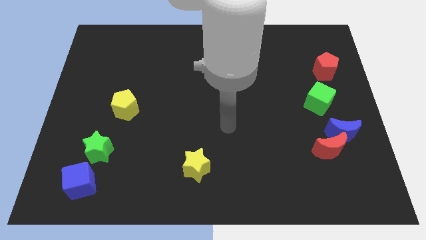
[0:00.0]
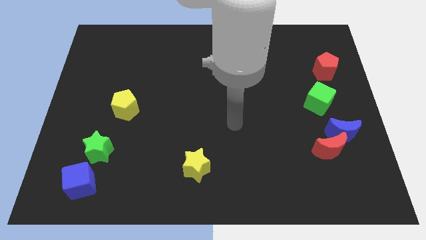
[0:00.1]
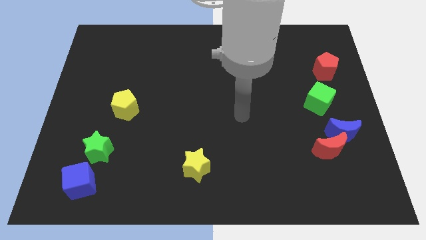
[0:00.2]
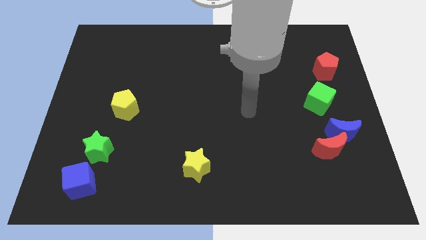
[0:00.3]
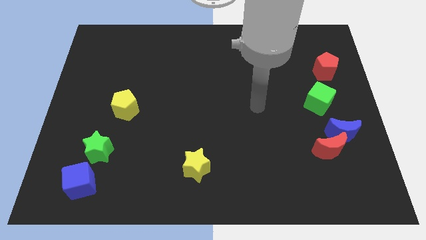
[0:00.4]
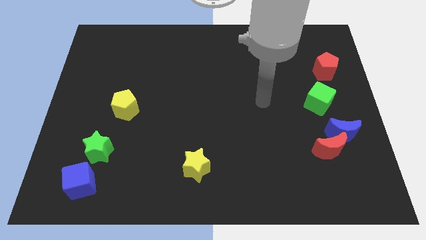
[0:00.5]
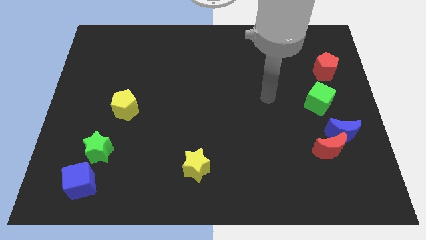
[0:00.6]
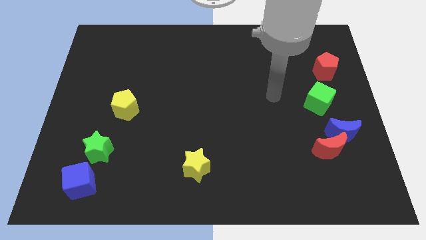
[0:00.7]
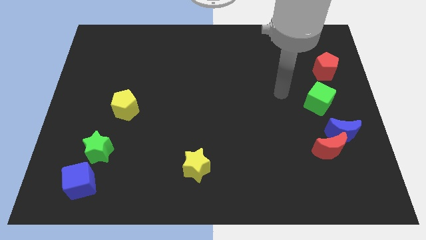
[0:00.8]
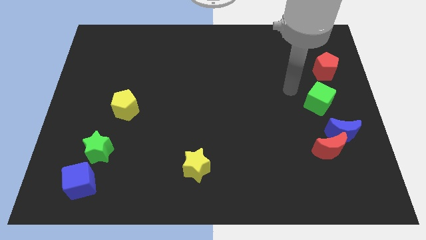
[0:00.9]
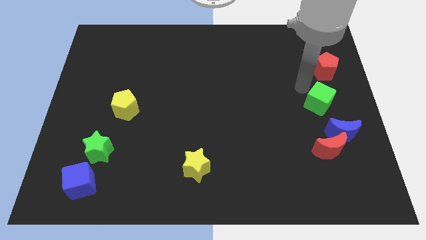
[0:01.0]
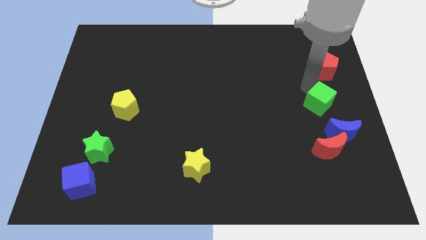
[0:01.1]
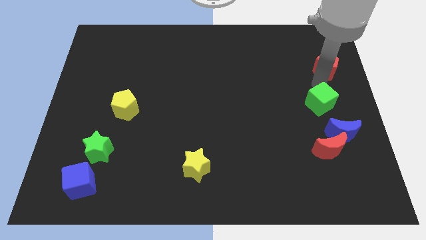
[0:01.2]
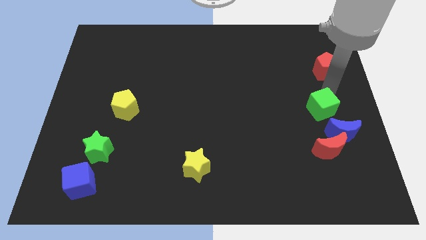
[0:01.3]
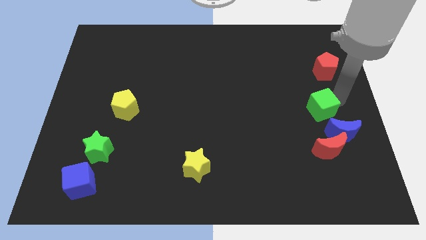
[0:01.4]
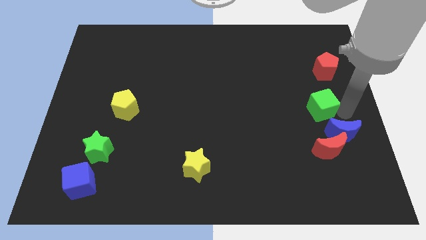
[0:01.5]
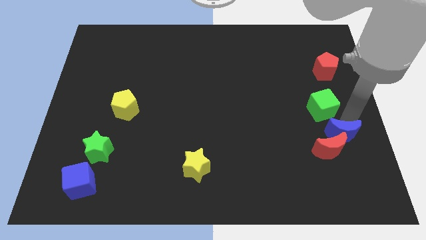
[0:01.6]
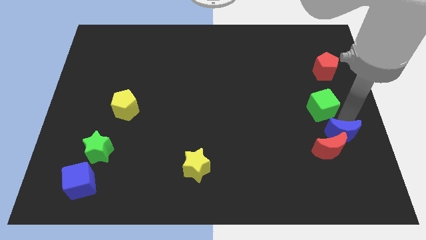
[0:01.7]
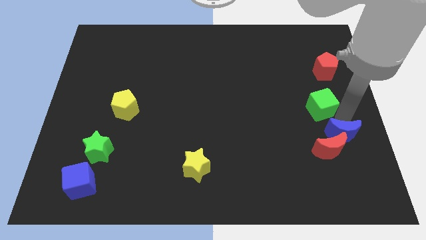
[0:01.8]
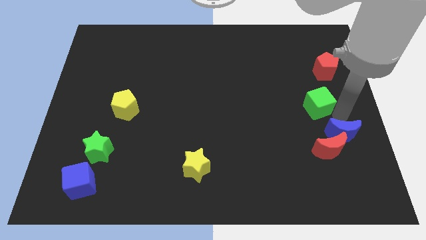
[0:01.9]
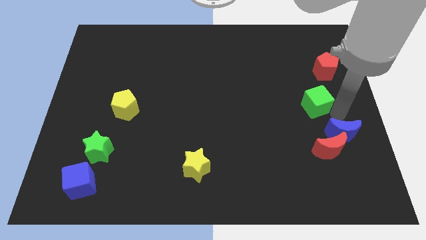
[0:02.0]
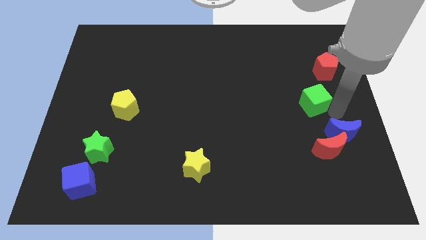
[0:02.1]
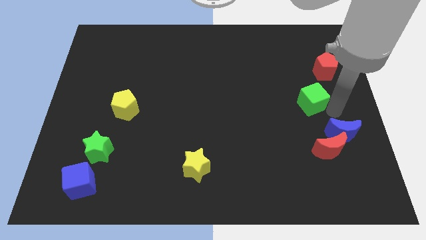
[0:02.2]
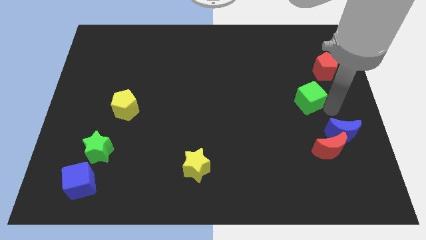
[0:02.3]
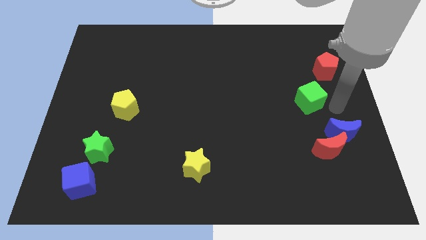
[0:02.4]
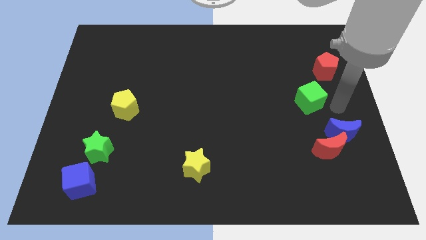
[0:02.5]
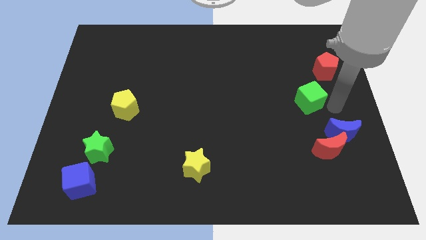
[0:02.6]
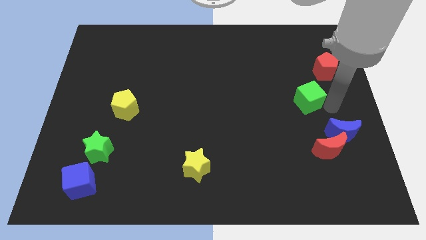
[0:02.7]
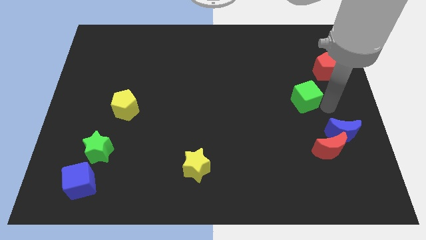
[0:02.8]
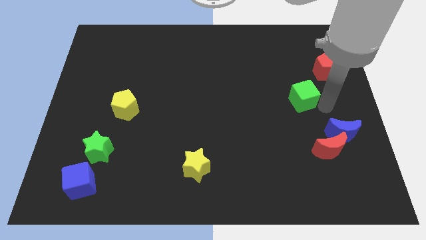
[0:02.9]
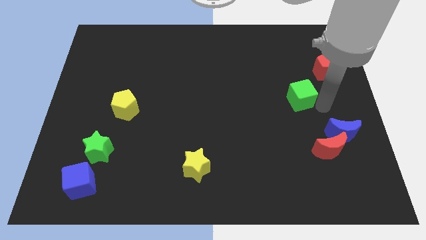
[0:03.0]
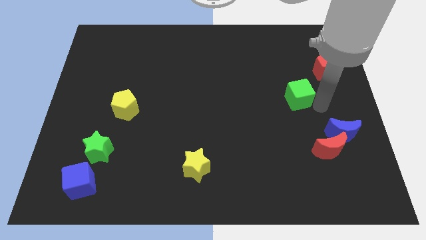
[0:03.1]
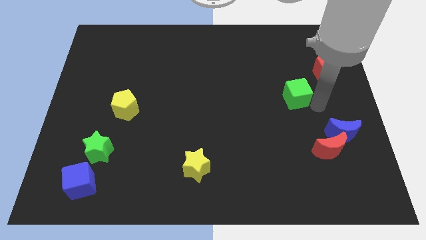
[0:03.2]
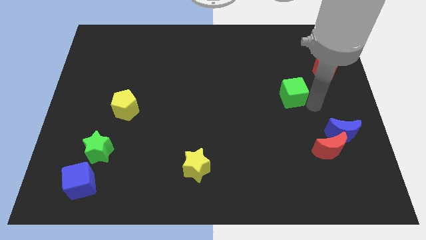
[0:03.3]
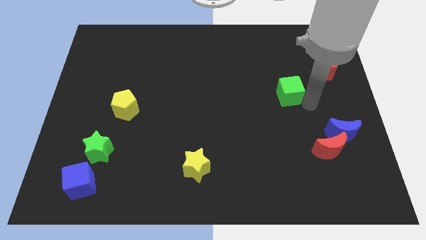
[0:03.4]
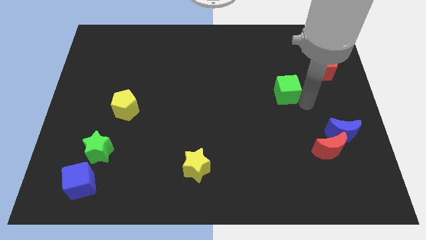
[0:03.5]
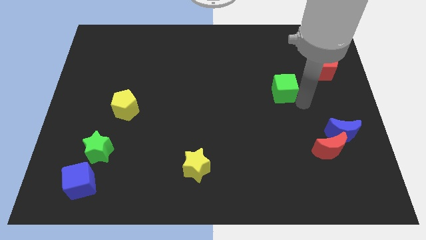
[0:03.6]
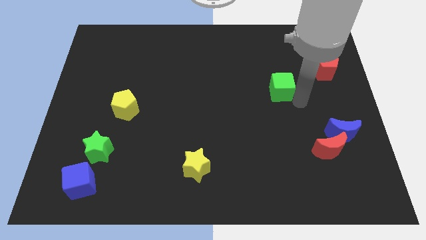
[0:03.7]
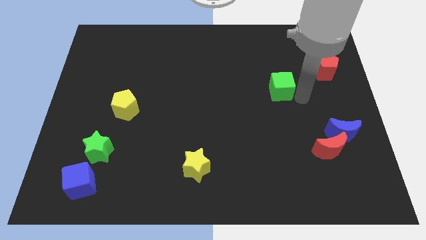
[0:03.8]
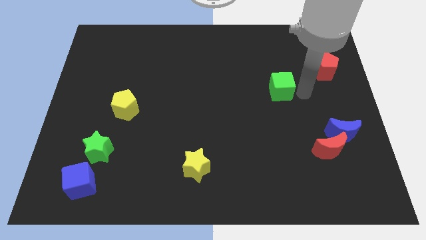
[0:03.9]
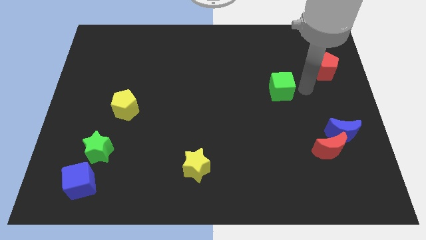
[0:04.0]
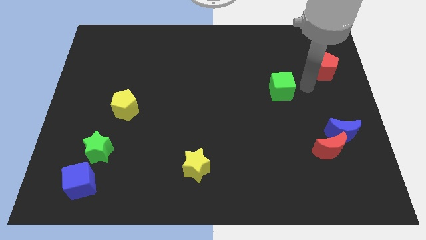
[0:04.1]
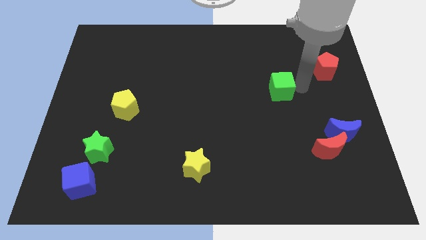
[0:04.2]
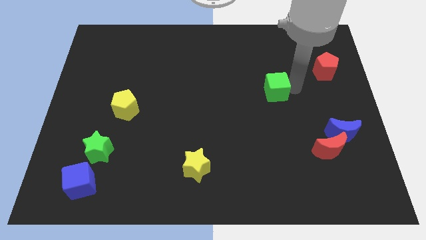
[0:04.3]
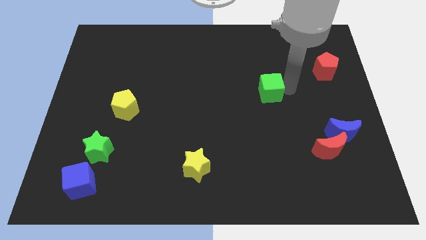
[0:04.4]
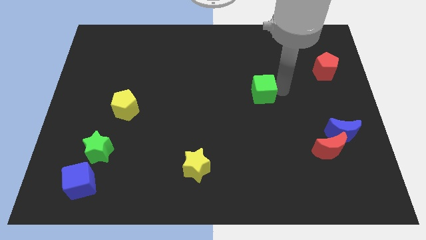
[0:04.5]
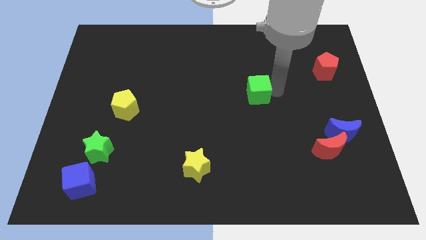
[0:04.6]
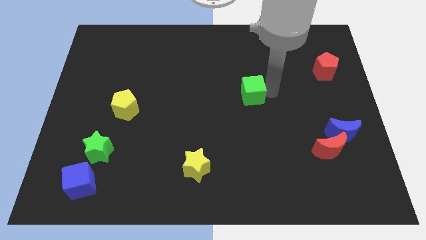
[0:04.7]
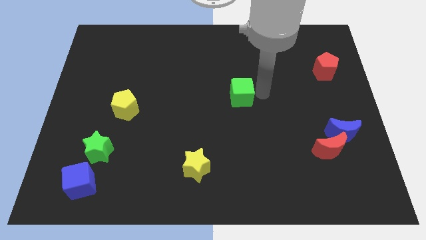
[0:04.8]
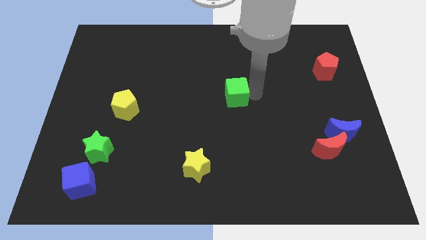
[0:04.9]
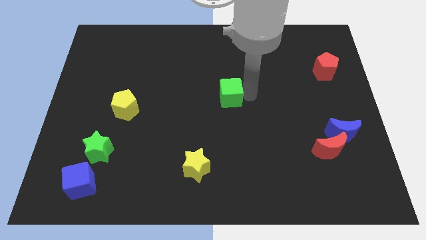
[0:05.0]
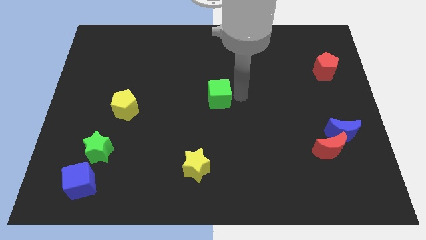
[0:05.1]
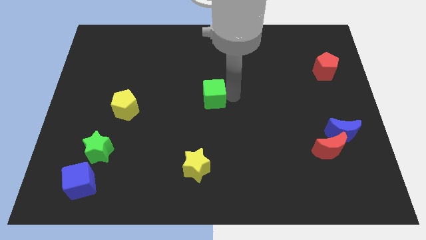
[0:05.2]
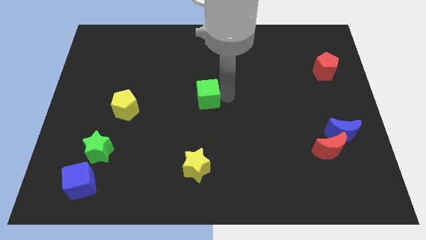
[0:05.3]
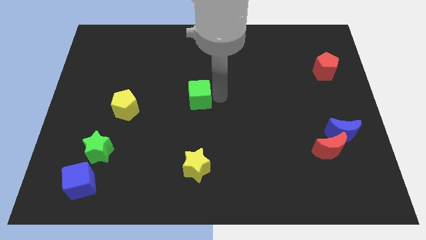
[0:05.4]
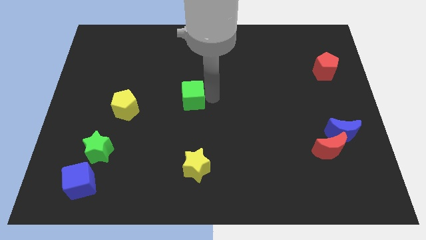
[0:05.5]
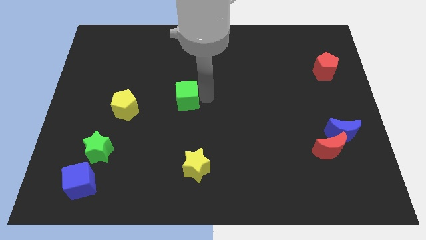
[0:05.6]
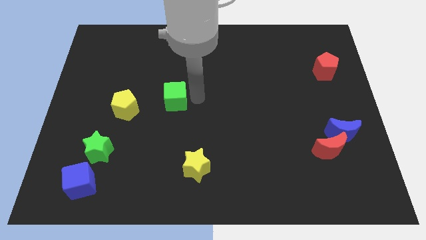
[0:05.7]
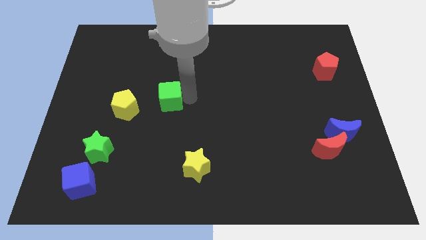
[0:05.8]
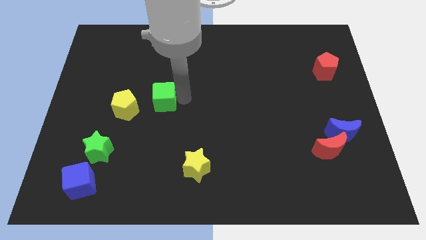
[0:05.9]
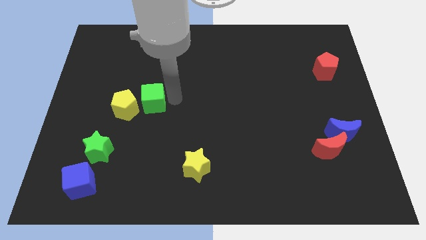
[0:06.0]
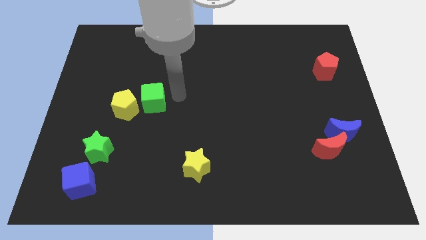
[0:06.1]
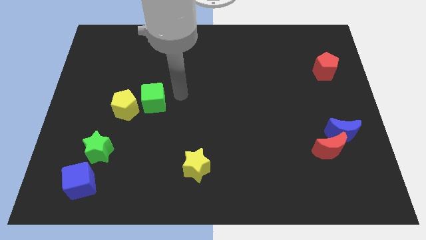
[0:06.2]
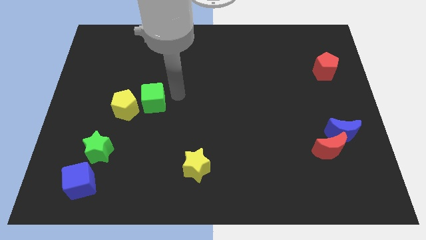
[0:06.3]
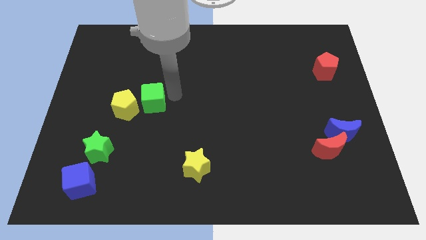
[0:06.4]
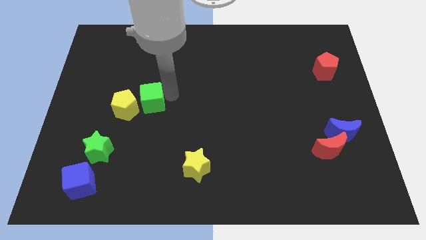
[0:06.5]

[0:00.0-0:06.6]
slide the green cube towards the yellow pentagon

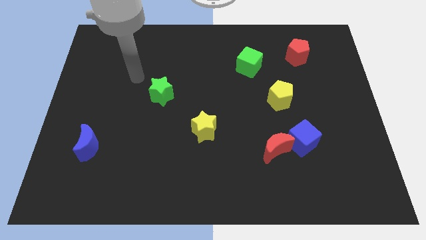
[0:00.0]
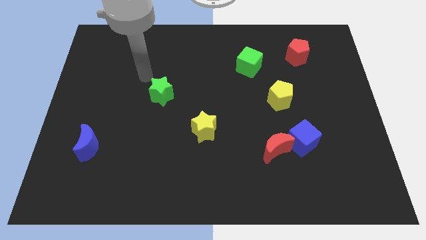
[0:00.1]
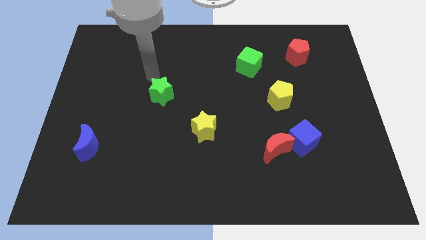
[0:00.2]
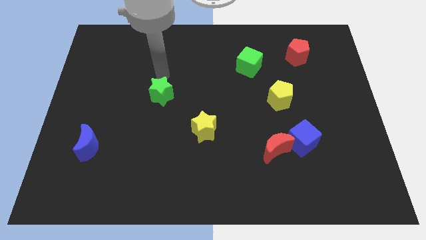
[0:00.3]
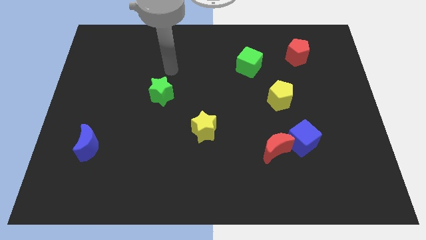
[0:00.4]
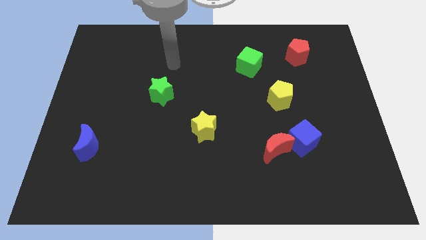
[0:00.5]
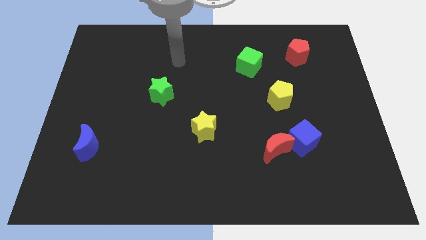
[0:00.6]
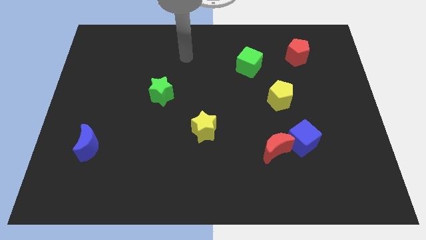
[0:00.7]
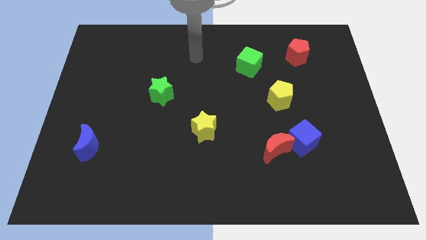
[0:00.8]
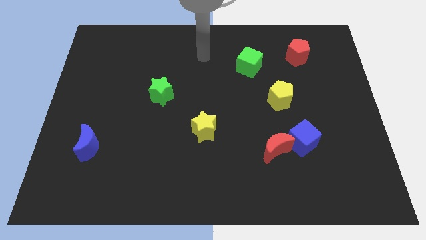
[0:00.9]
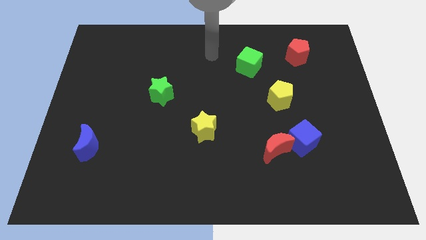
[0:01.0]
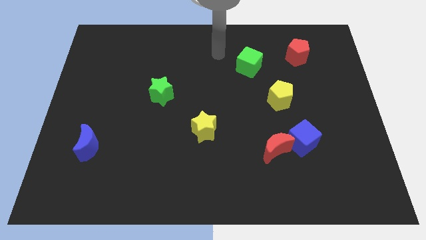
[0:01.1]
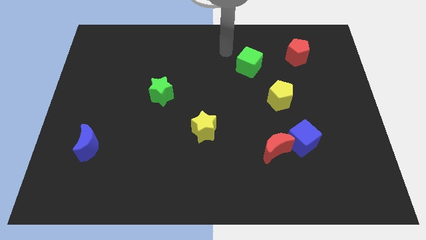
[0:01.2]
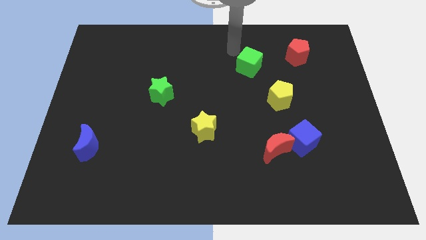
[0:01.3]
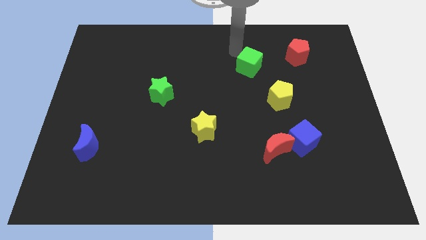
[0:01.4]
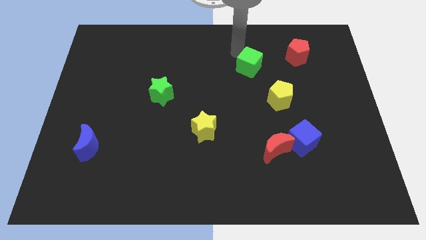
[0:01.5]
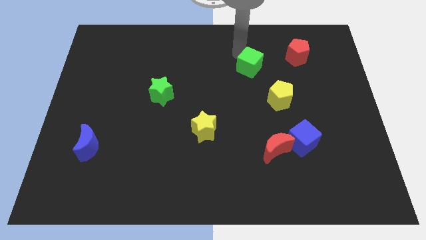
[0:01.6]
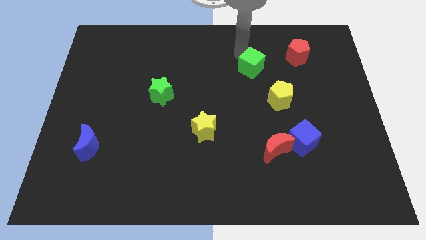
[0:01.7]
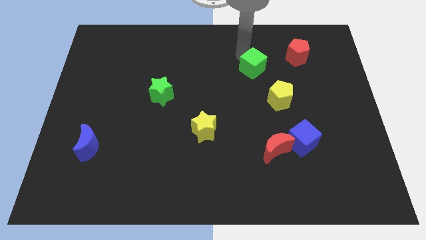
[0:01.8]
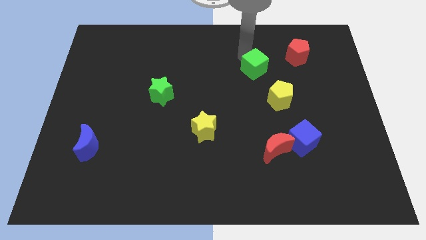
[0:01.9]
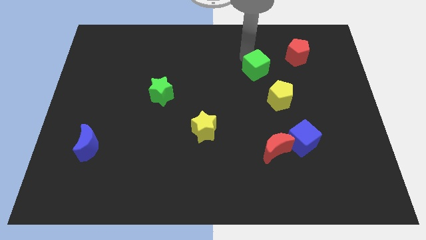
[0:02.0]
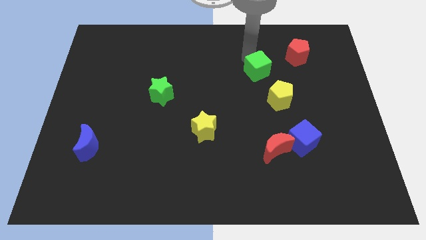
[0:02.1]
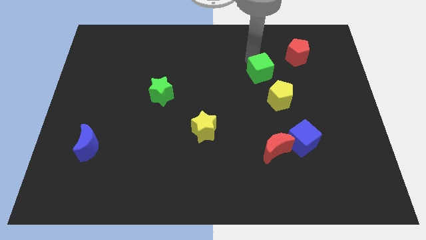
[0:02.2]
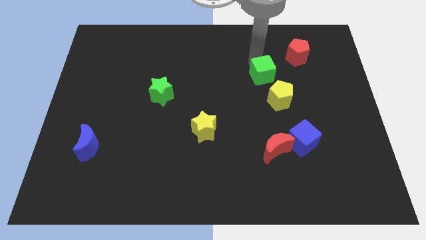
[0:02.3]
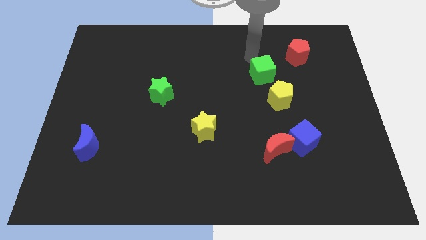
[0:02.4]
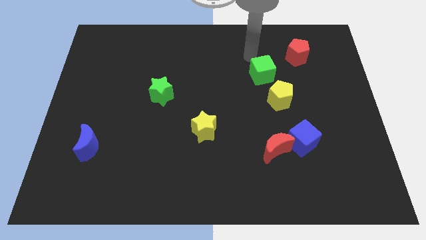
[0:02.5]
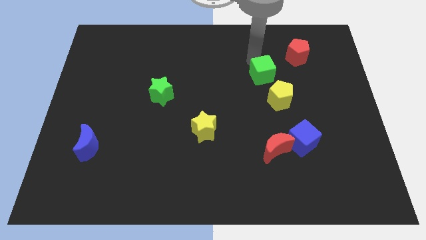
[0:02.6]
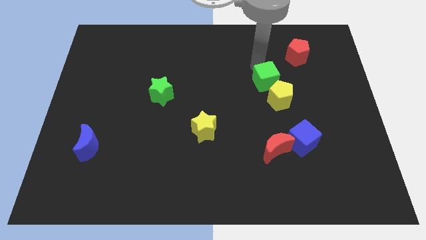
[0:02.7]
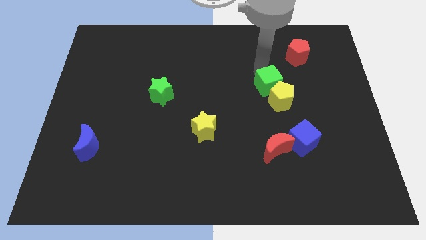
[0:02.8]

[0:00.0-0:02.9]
slide the green cube close to the yellow pentagon
